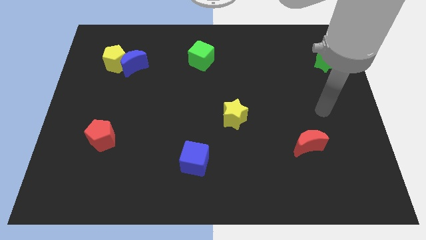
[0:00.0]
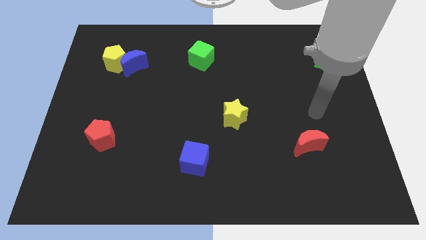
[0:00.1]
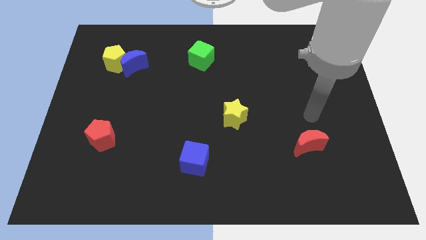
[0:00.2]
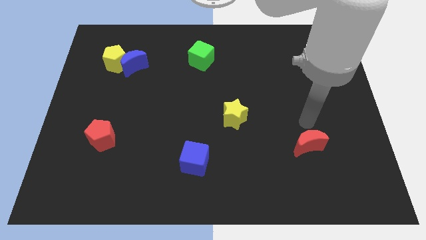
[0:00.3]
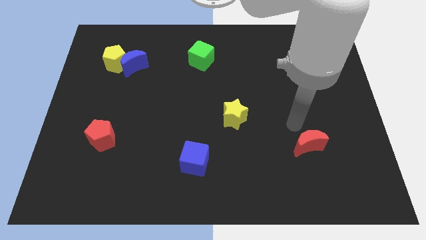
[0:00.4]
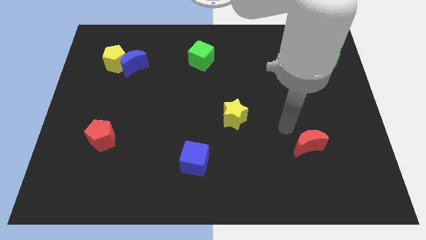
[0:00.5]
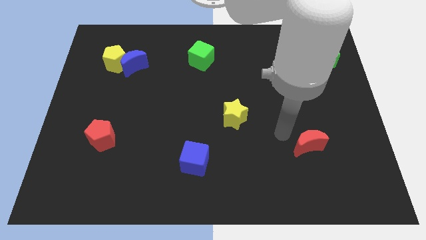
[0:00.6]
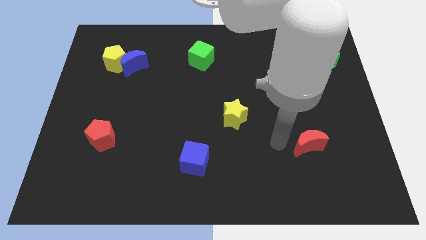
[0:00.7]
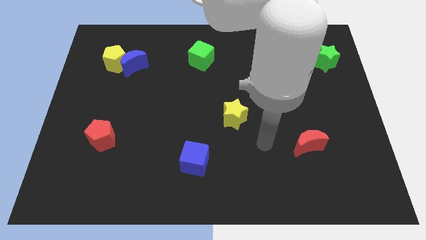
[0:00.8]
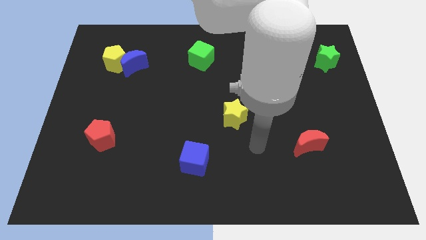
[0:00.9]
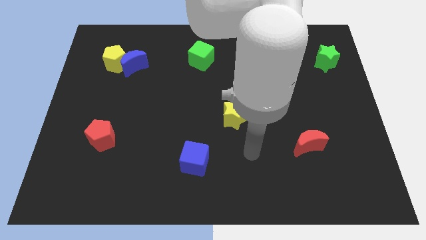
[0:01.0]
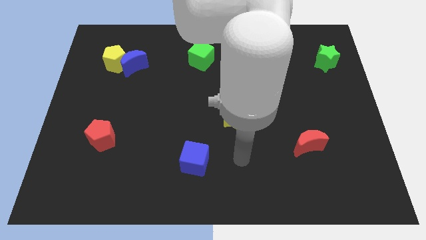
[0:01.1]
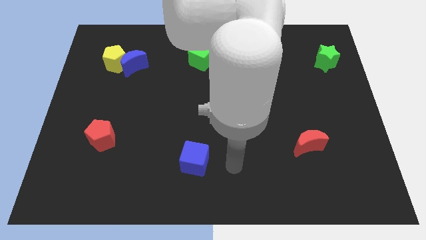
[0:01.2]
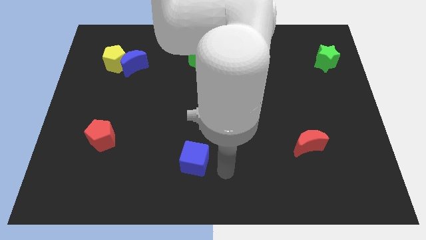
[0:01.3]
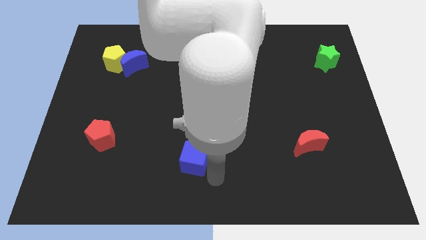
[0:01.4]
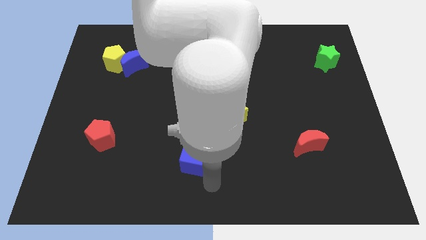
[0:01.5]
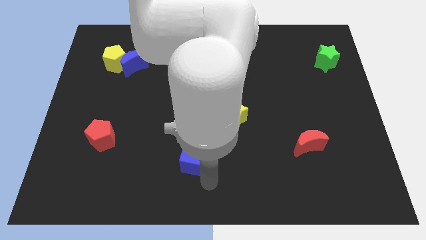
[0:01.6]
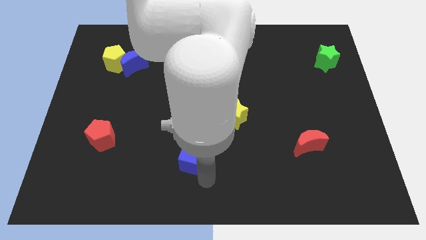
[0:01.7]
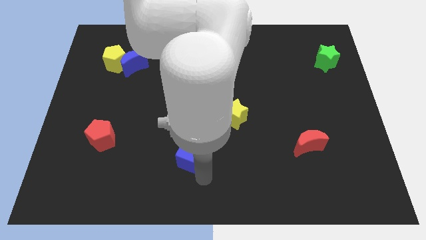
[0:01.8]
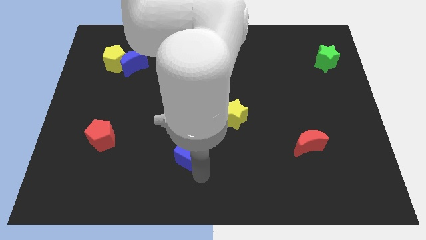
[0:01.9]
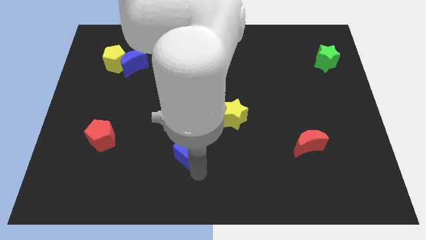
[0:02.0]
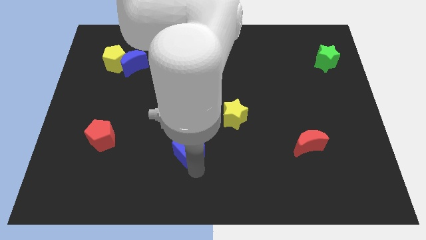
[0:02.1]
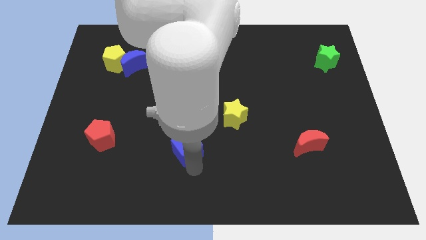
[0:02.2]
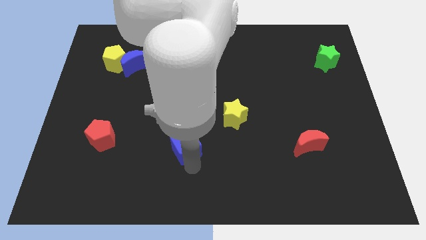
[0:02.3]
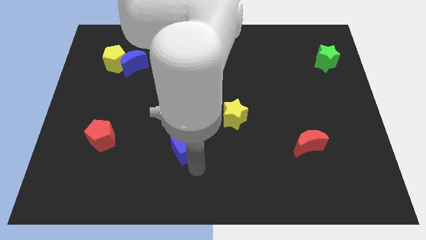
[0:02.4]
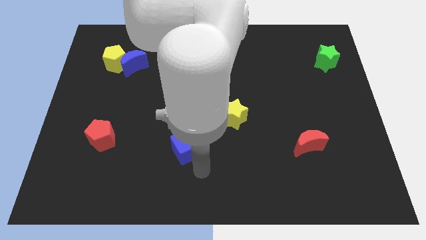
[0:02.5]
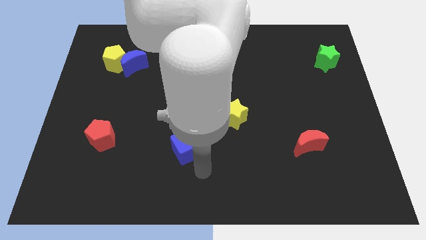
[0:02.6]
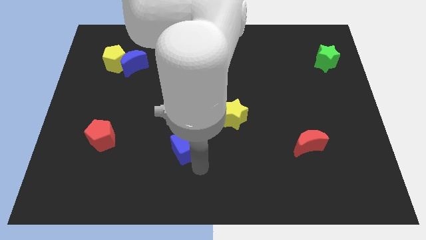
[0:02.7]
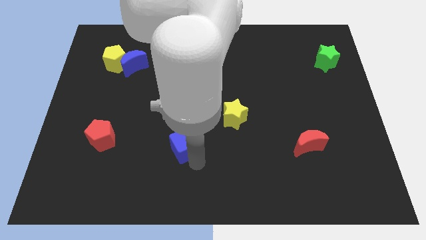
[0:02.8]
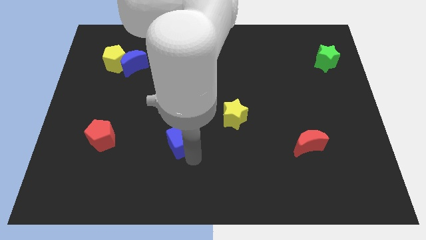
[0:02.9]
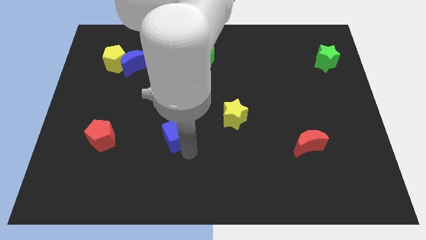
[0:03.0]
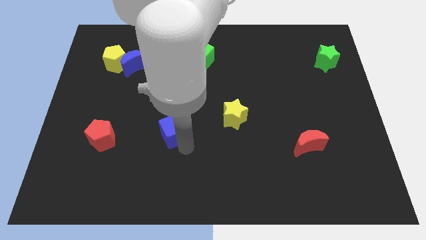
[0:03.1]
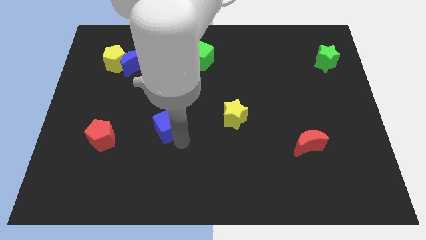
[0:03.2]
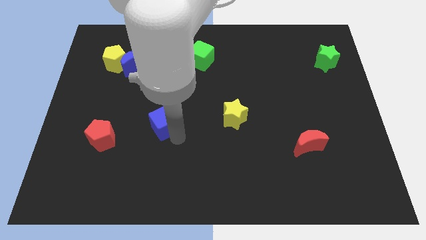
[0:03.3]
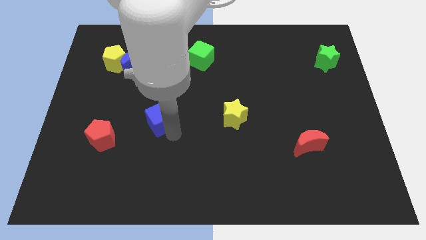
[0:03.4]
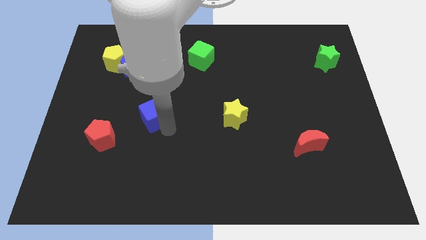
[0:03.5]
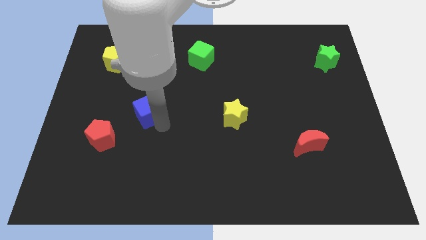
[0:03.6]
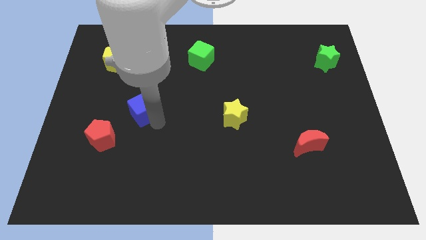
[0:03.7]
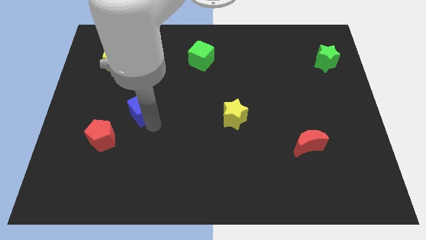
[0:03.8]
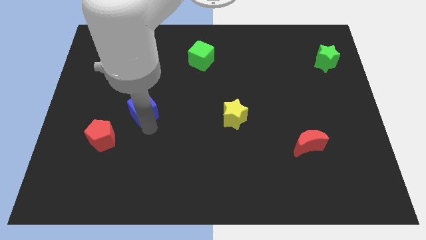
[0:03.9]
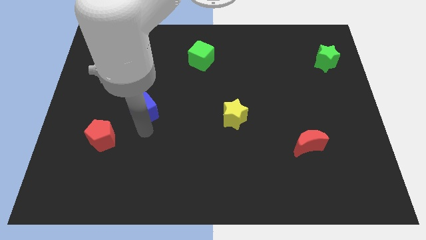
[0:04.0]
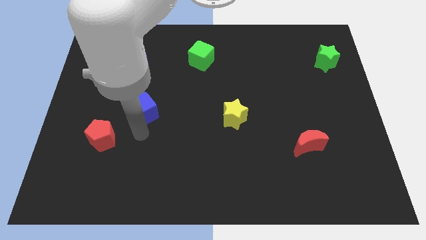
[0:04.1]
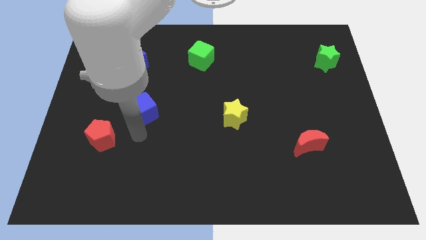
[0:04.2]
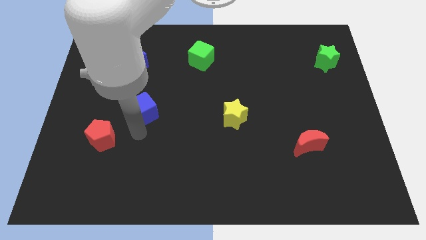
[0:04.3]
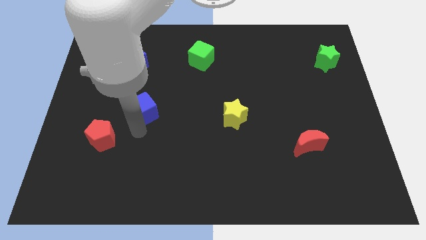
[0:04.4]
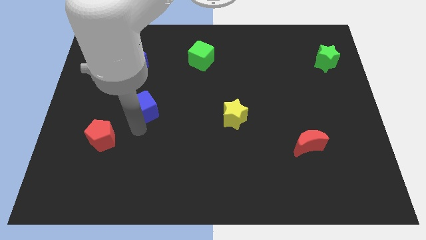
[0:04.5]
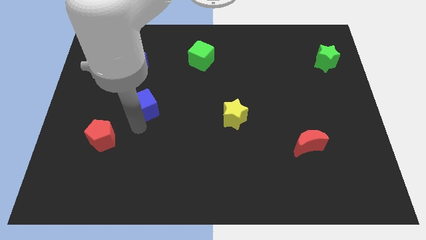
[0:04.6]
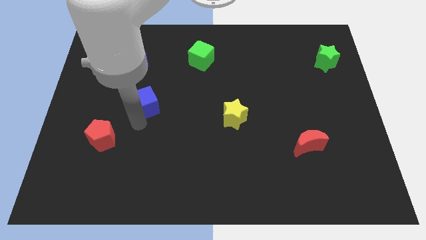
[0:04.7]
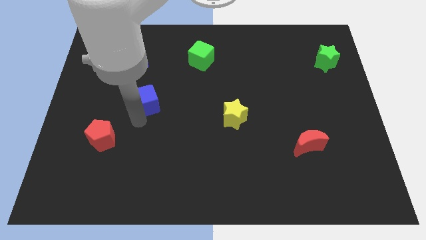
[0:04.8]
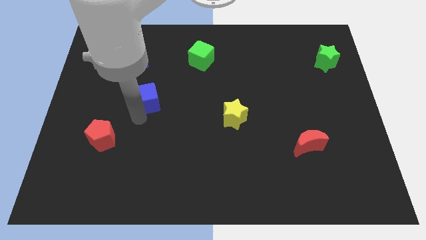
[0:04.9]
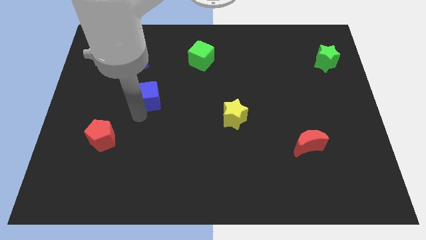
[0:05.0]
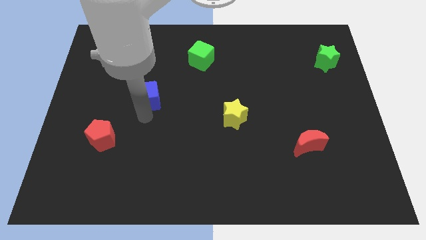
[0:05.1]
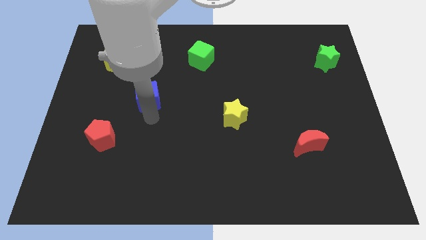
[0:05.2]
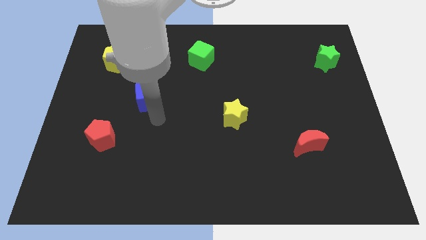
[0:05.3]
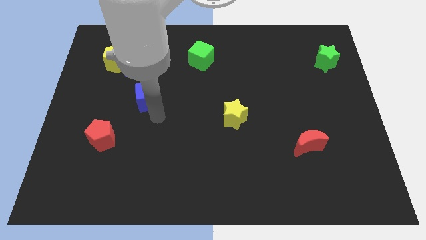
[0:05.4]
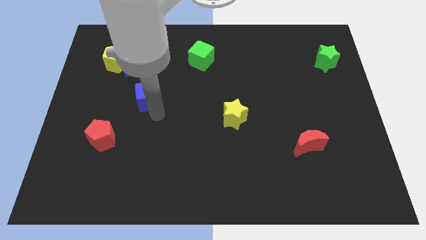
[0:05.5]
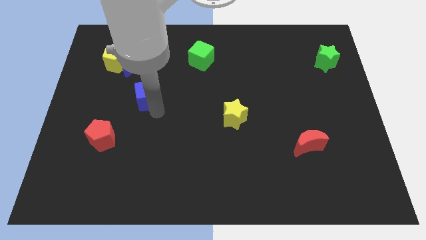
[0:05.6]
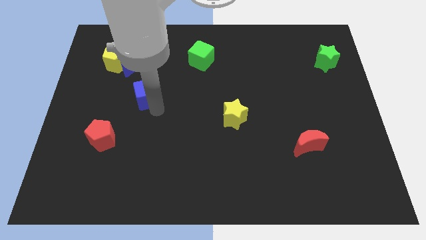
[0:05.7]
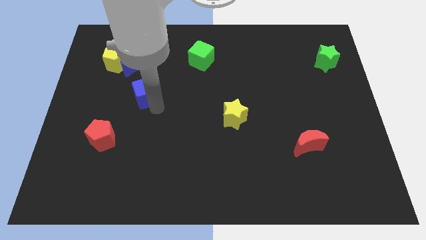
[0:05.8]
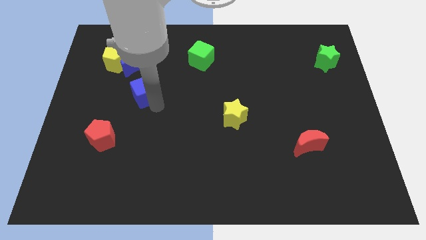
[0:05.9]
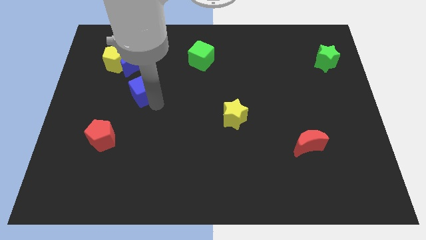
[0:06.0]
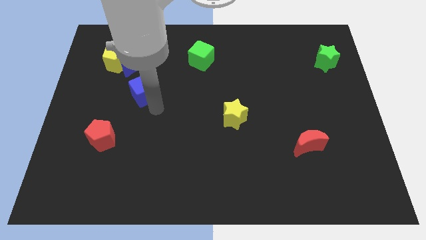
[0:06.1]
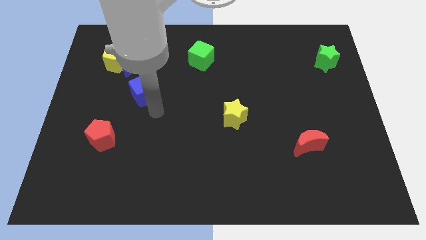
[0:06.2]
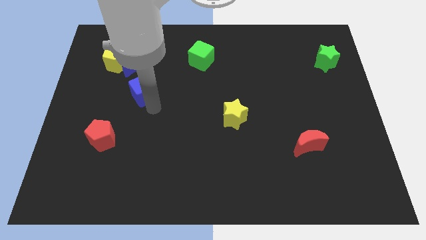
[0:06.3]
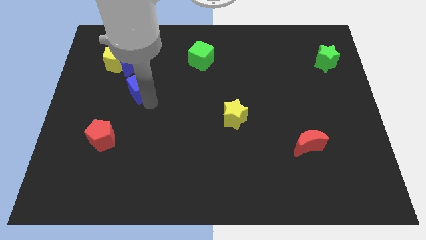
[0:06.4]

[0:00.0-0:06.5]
push the blue cube to the bottom right of the yellow pentagon
